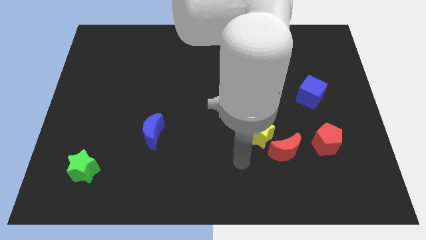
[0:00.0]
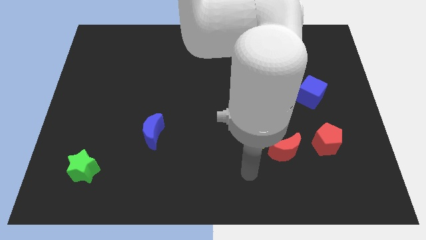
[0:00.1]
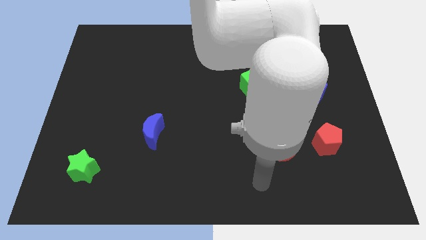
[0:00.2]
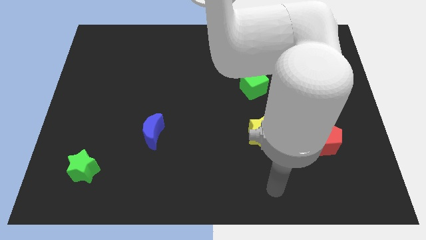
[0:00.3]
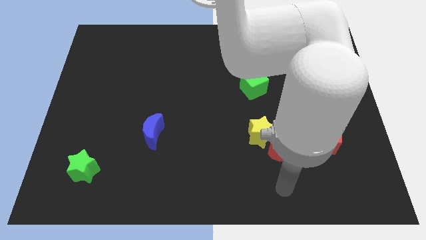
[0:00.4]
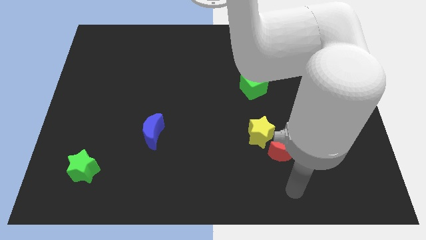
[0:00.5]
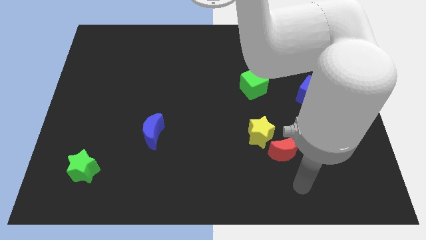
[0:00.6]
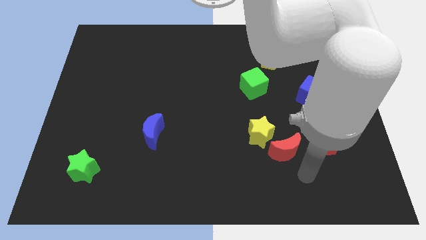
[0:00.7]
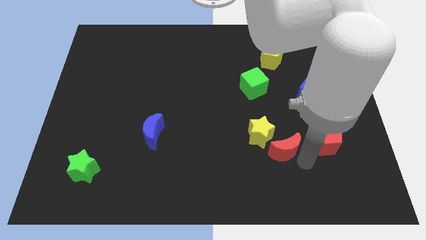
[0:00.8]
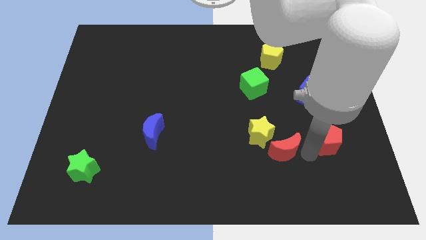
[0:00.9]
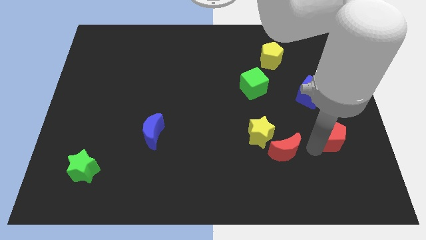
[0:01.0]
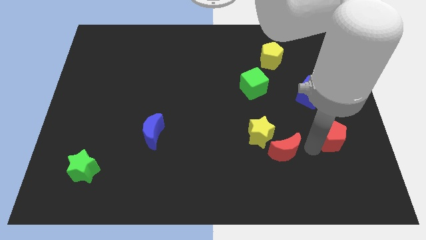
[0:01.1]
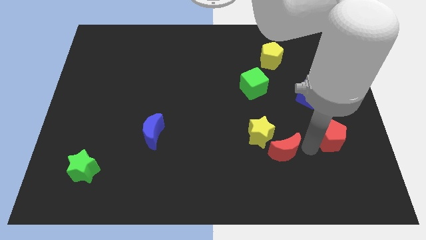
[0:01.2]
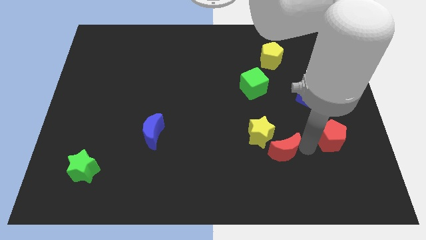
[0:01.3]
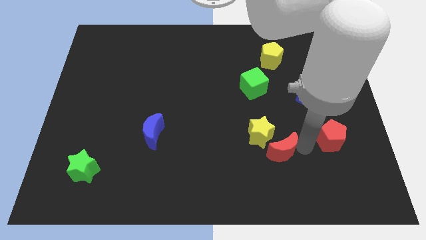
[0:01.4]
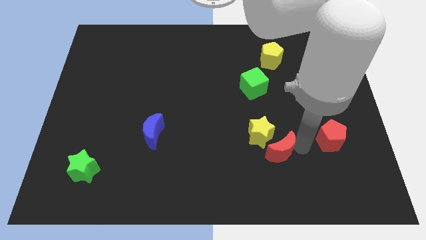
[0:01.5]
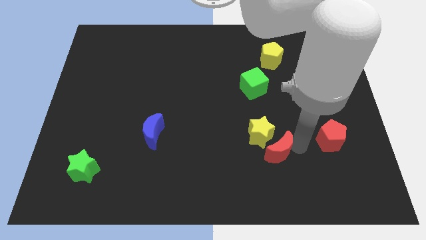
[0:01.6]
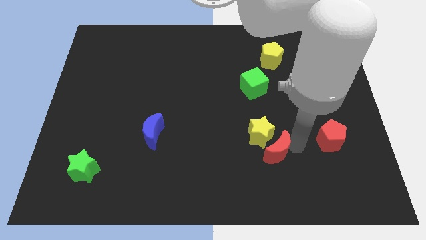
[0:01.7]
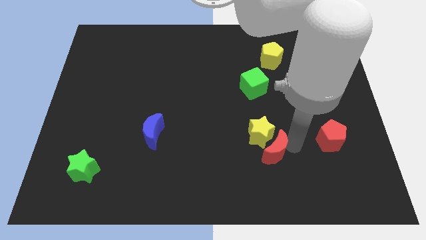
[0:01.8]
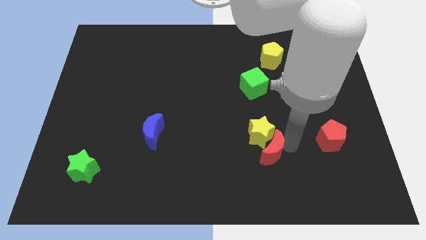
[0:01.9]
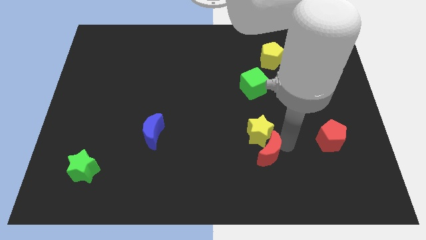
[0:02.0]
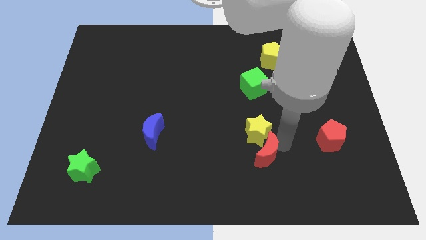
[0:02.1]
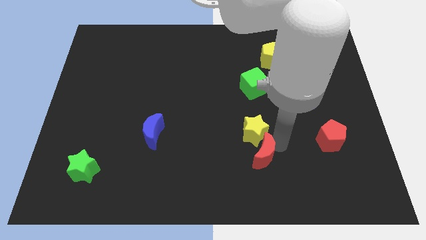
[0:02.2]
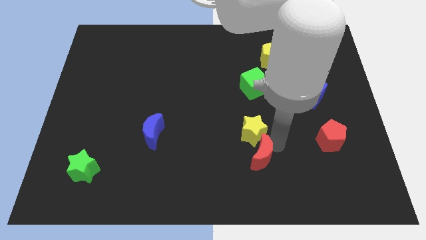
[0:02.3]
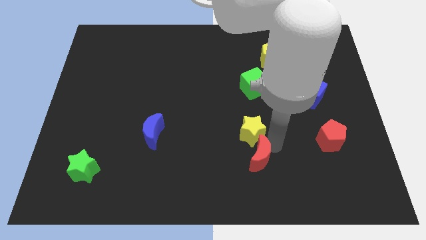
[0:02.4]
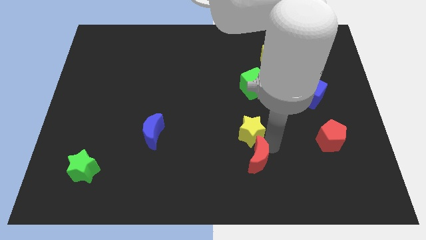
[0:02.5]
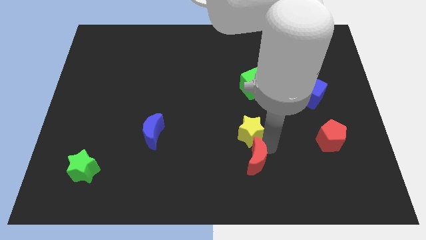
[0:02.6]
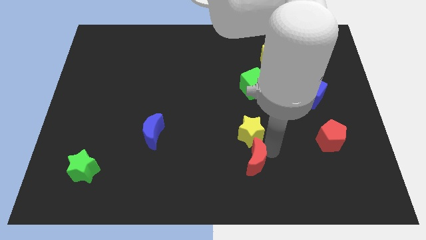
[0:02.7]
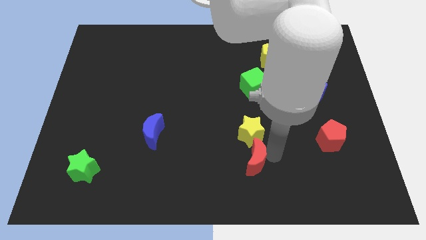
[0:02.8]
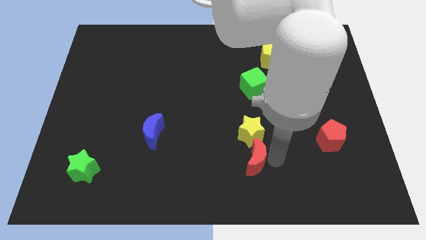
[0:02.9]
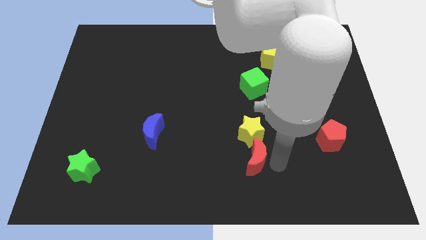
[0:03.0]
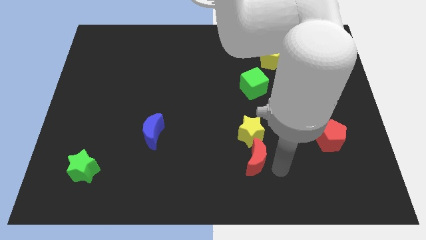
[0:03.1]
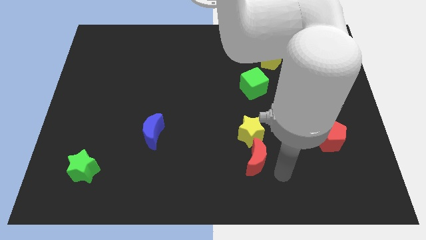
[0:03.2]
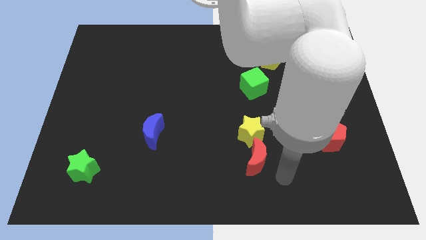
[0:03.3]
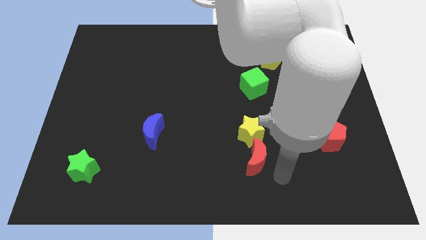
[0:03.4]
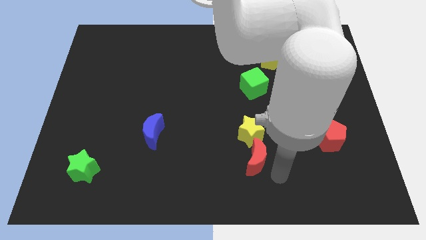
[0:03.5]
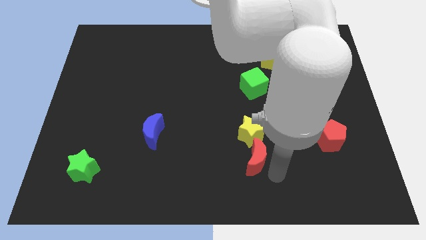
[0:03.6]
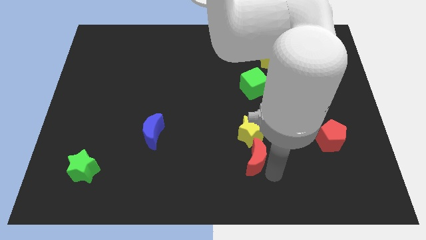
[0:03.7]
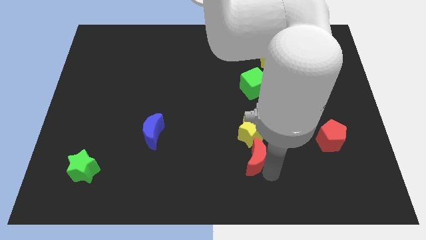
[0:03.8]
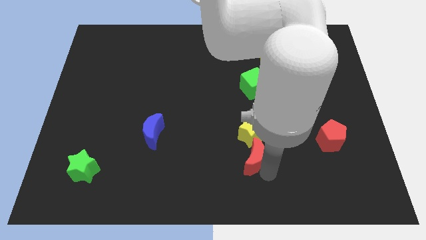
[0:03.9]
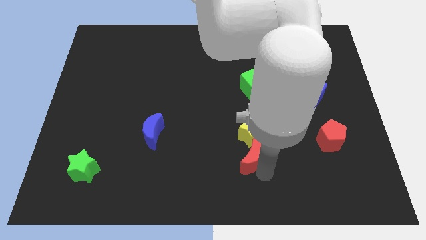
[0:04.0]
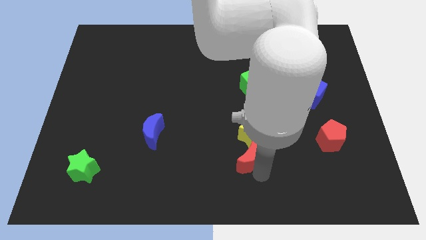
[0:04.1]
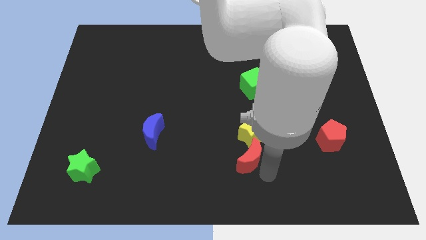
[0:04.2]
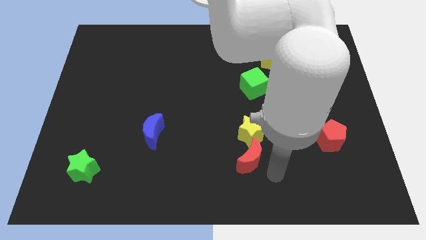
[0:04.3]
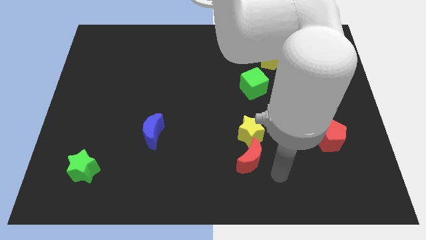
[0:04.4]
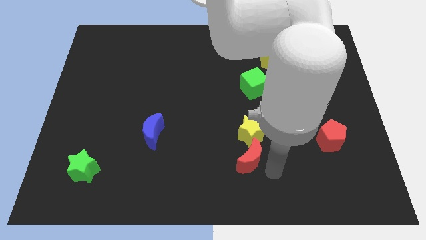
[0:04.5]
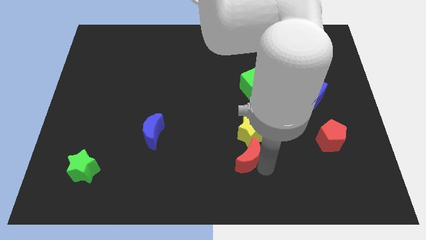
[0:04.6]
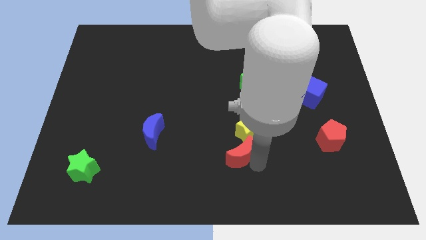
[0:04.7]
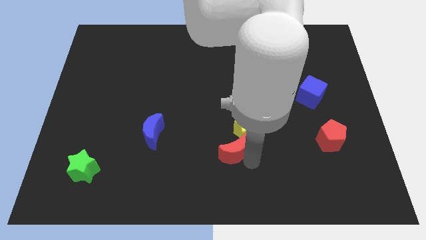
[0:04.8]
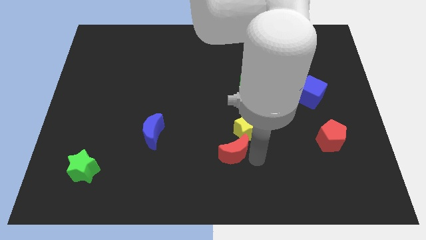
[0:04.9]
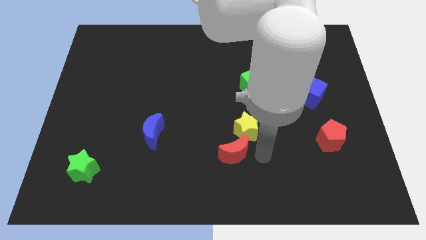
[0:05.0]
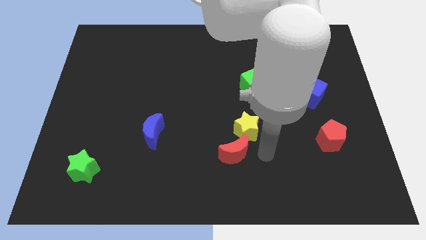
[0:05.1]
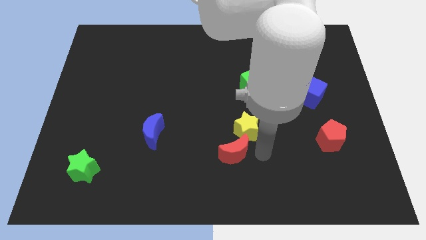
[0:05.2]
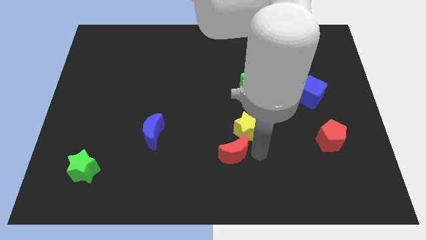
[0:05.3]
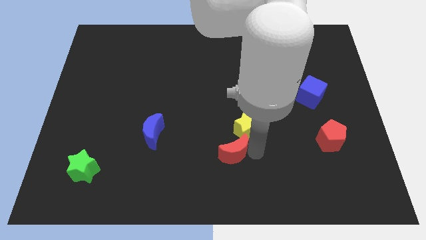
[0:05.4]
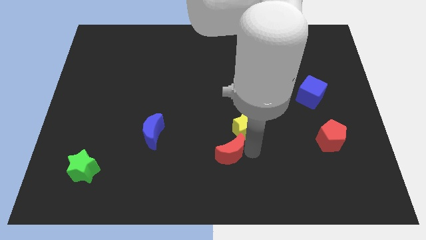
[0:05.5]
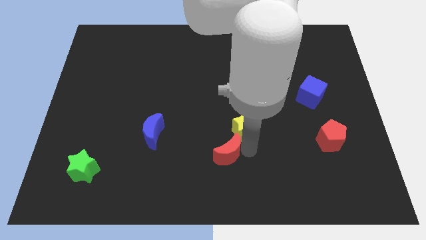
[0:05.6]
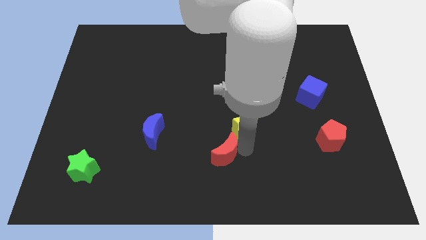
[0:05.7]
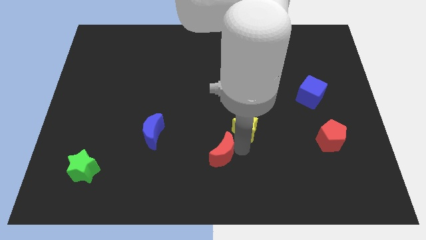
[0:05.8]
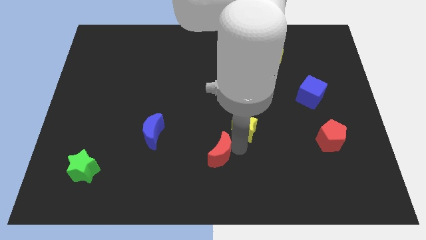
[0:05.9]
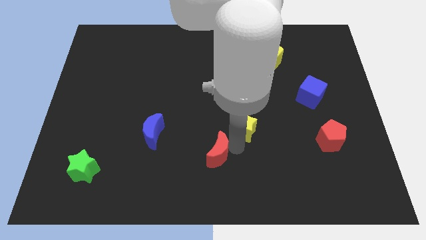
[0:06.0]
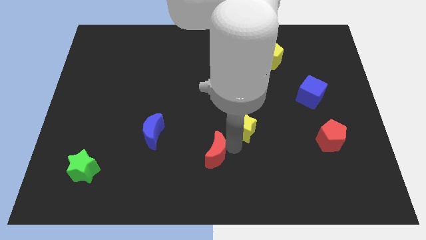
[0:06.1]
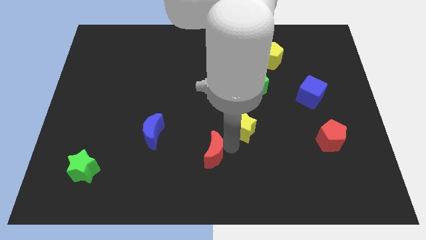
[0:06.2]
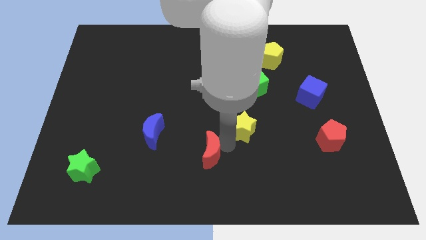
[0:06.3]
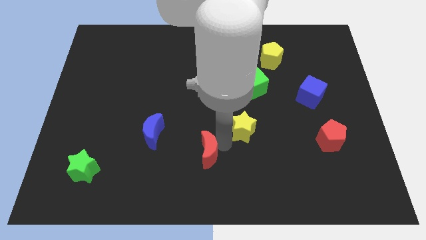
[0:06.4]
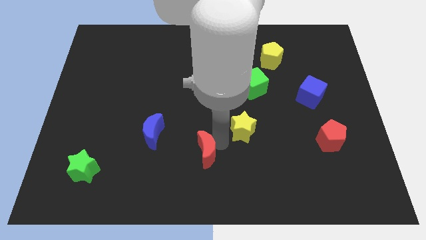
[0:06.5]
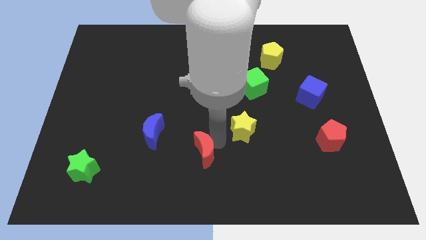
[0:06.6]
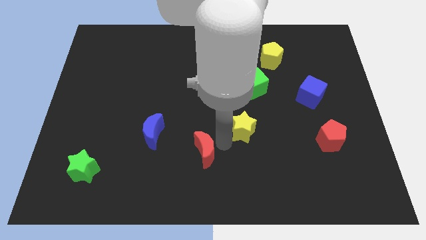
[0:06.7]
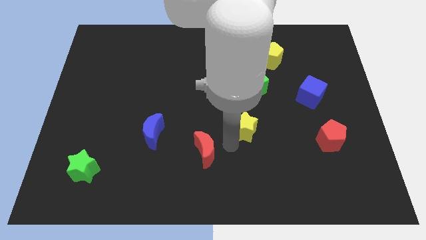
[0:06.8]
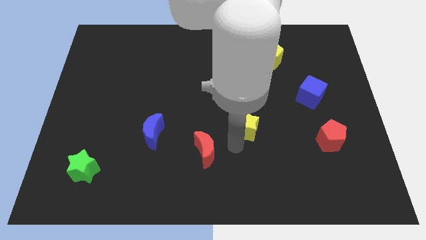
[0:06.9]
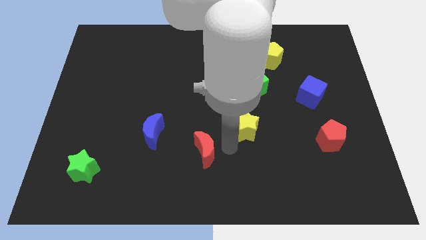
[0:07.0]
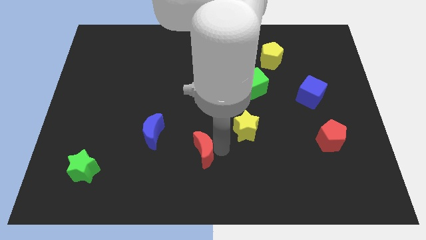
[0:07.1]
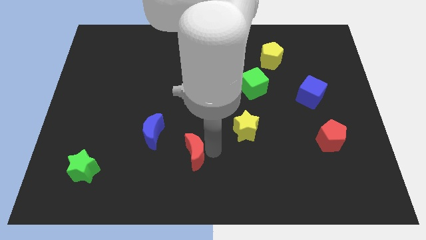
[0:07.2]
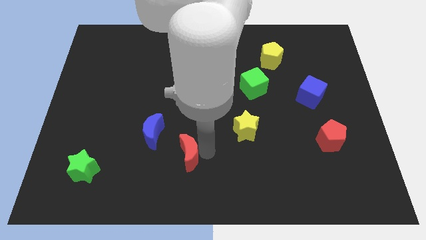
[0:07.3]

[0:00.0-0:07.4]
move the red moon left

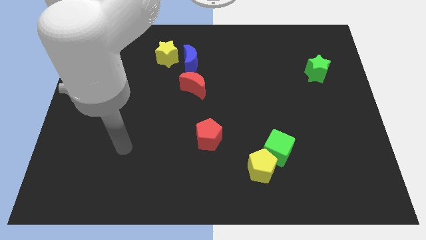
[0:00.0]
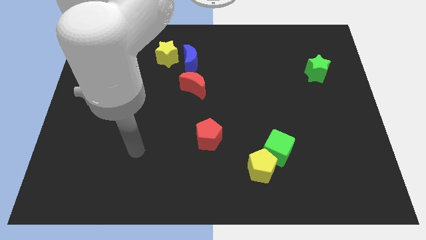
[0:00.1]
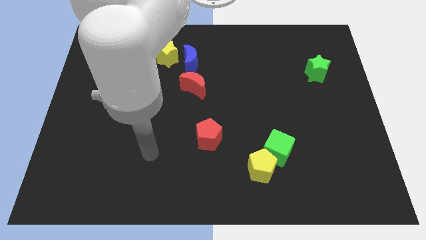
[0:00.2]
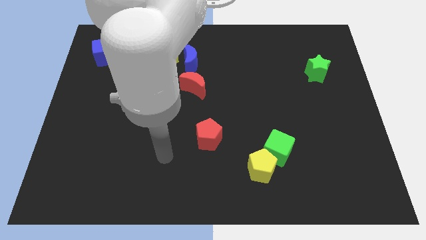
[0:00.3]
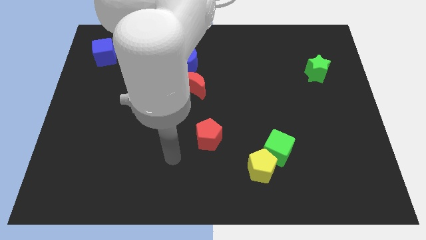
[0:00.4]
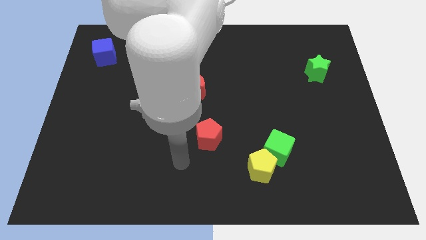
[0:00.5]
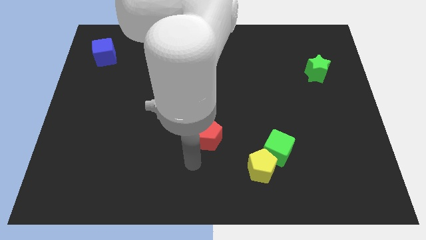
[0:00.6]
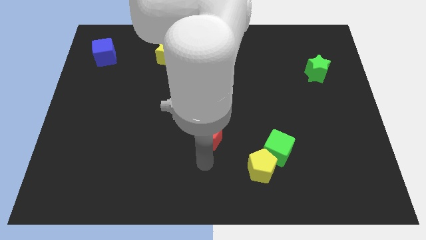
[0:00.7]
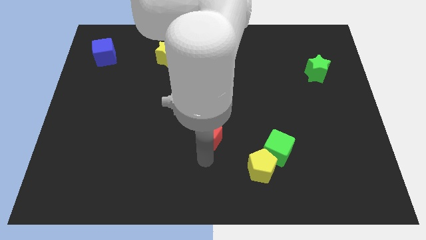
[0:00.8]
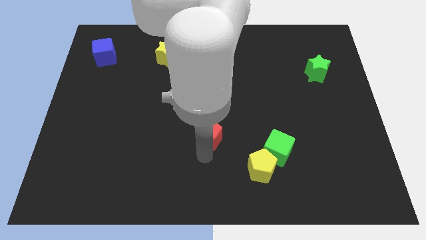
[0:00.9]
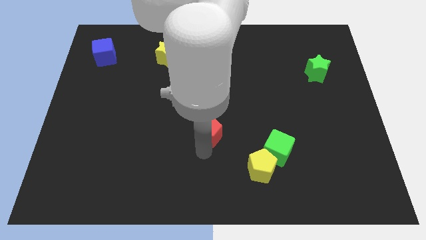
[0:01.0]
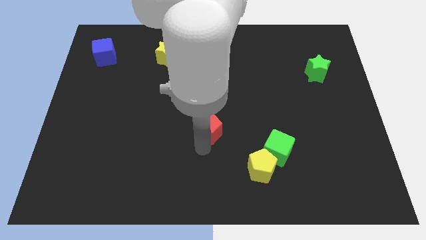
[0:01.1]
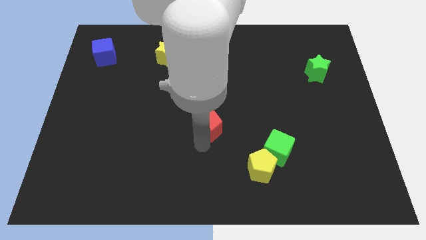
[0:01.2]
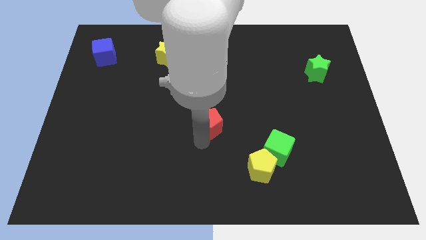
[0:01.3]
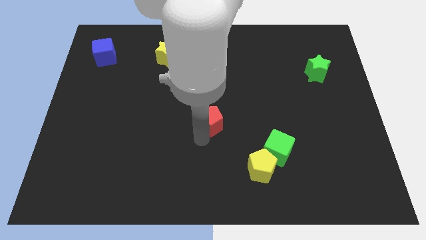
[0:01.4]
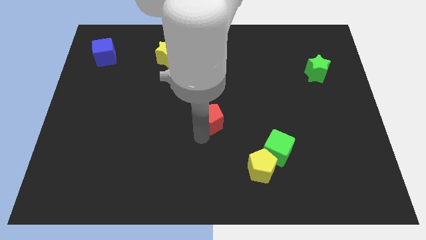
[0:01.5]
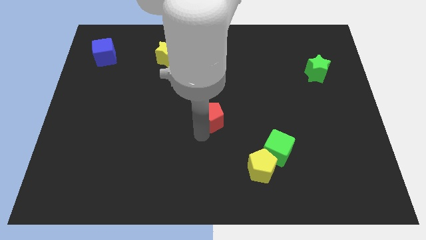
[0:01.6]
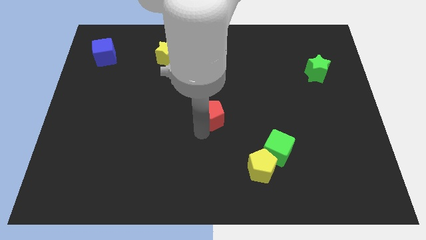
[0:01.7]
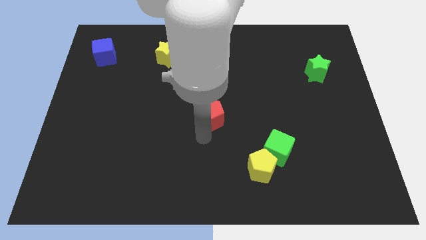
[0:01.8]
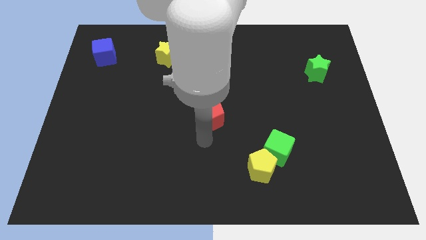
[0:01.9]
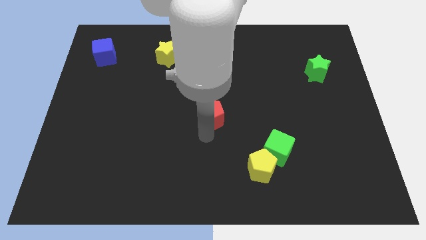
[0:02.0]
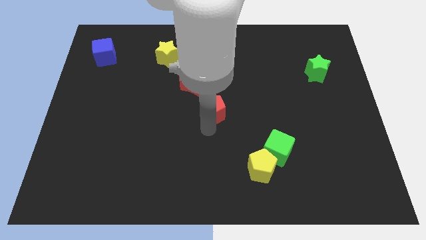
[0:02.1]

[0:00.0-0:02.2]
slide the red pentagon slightly up
